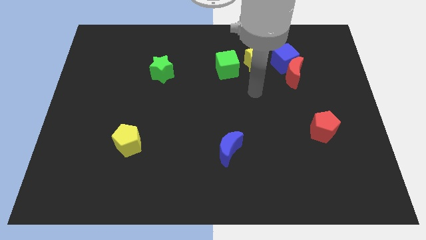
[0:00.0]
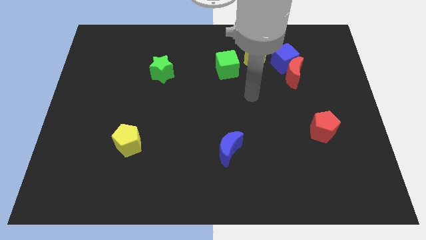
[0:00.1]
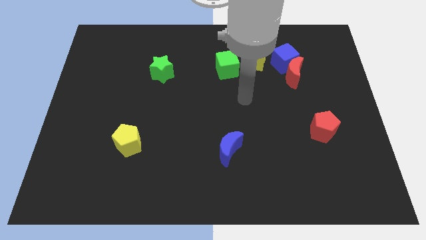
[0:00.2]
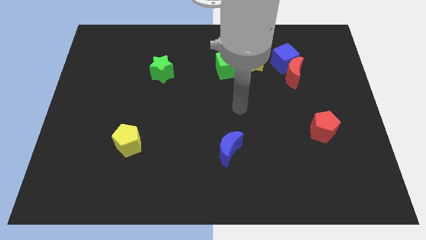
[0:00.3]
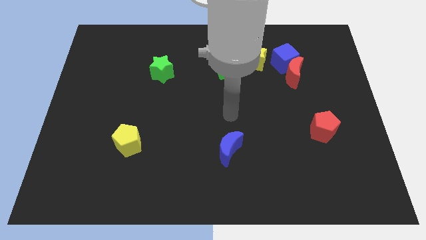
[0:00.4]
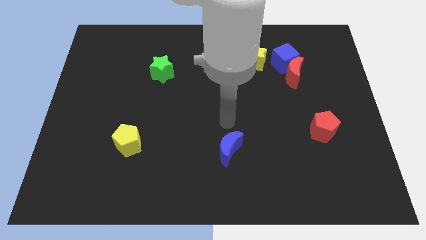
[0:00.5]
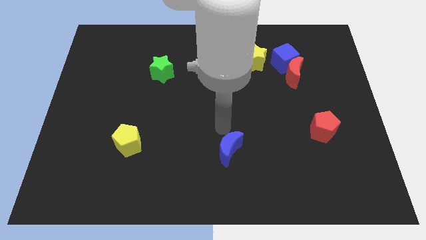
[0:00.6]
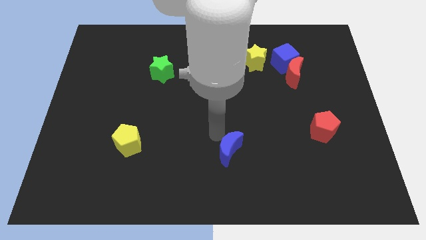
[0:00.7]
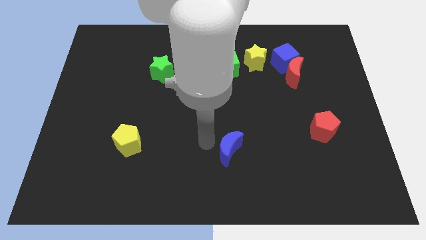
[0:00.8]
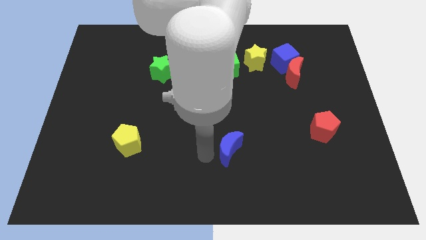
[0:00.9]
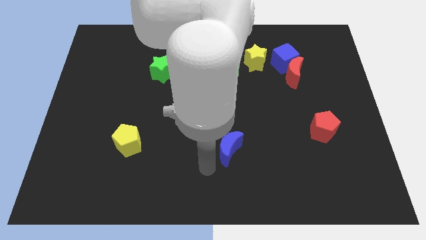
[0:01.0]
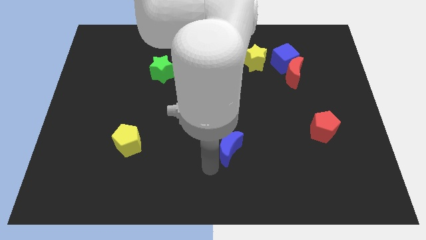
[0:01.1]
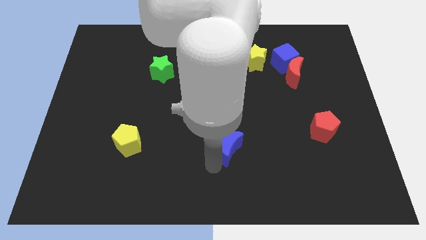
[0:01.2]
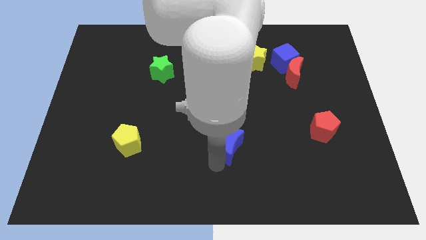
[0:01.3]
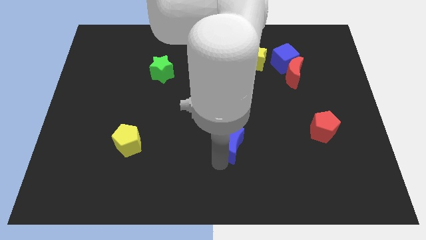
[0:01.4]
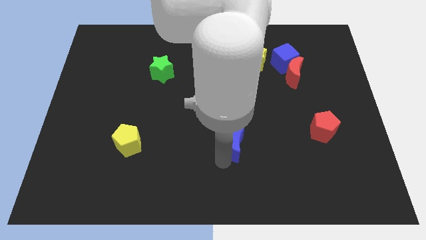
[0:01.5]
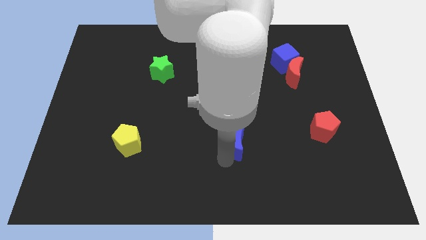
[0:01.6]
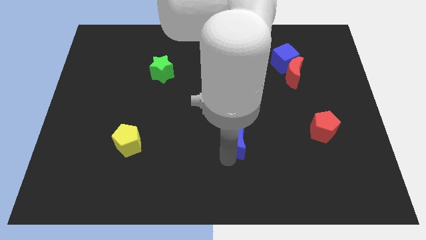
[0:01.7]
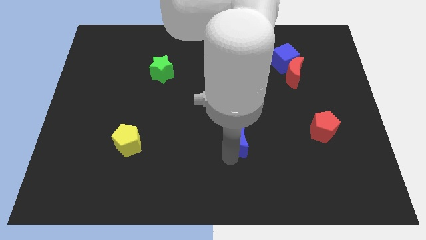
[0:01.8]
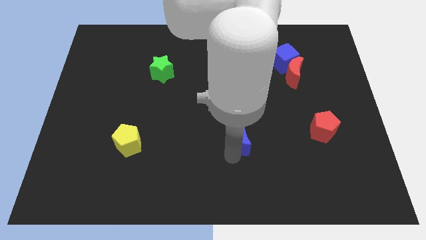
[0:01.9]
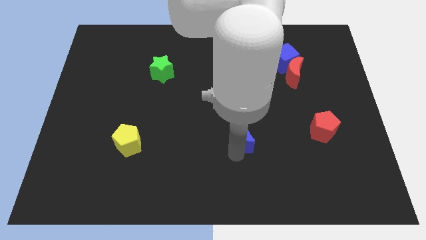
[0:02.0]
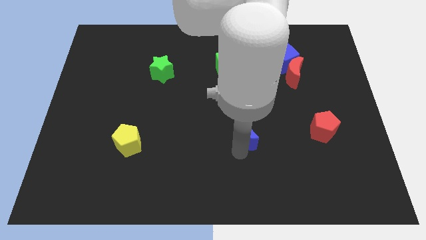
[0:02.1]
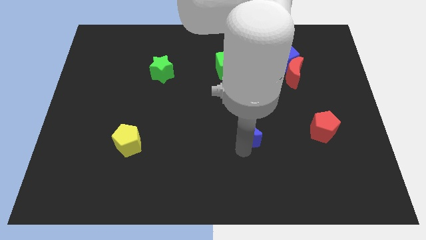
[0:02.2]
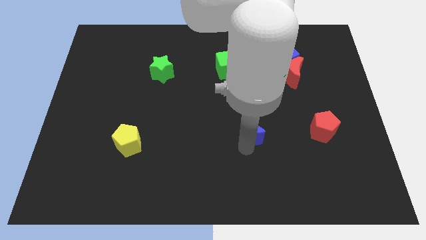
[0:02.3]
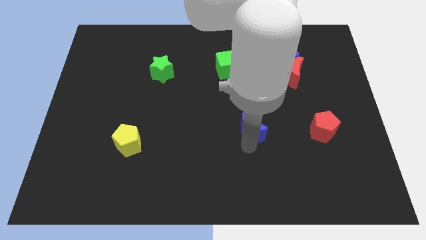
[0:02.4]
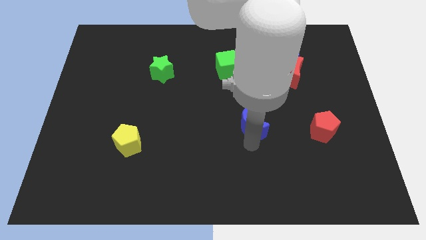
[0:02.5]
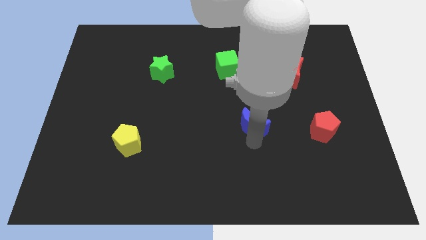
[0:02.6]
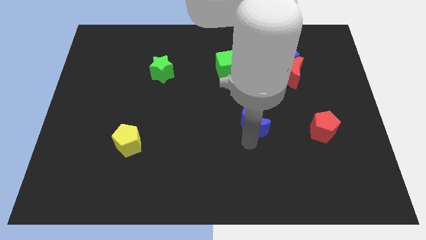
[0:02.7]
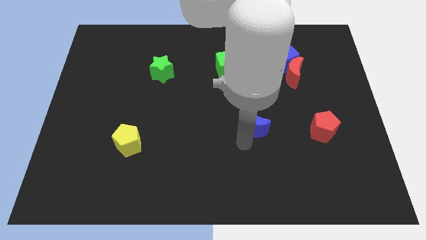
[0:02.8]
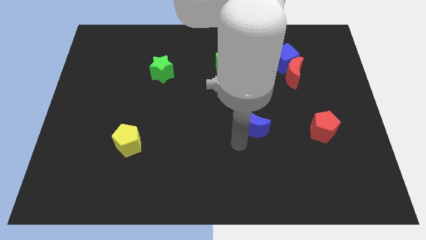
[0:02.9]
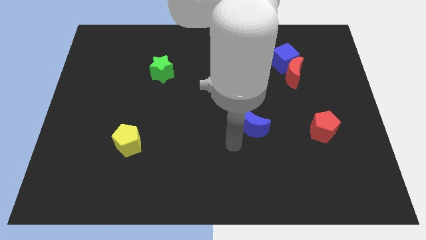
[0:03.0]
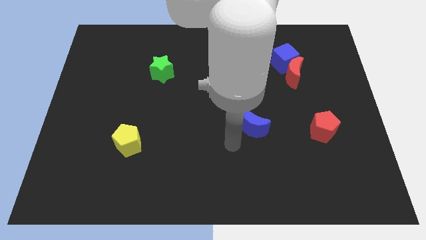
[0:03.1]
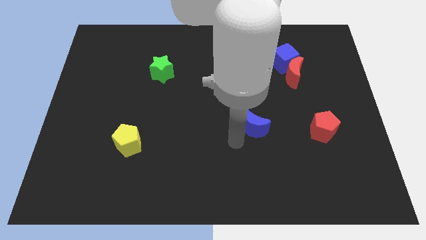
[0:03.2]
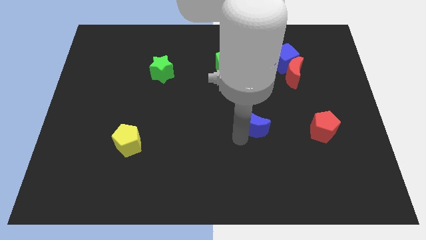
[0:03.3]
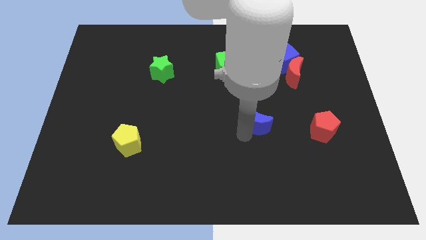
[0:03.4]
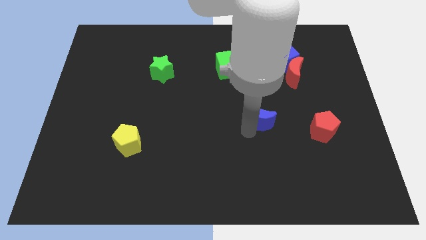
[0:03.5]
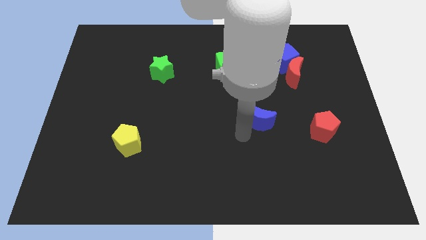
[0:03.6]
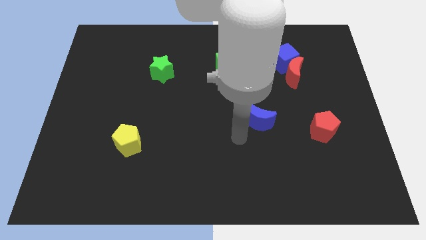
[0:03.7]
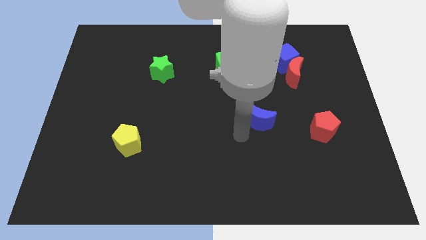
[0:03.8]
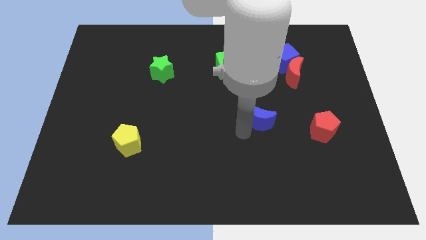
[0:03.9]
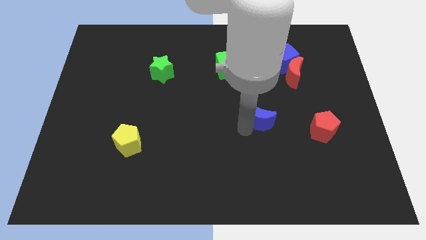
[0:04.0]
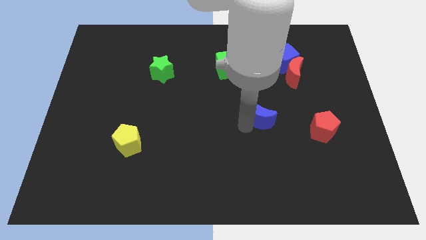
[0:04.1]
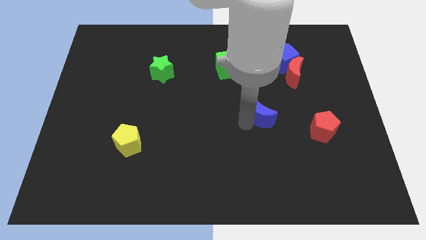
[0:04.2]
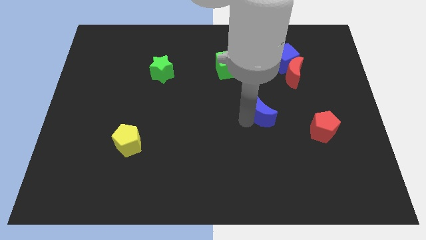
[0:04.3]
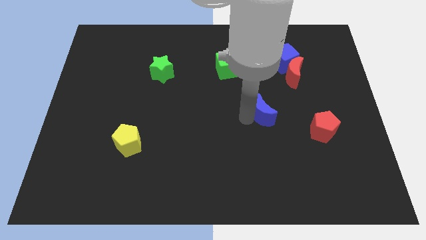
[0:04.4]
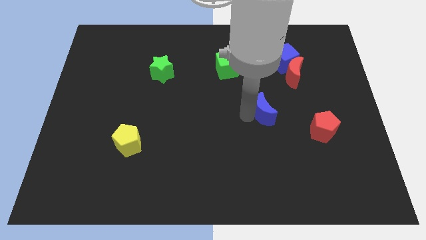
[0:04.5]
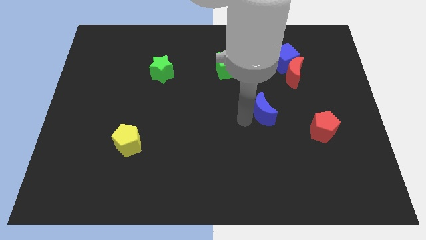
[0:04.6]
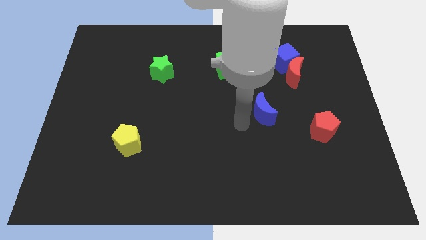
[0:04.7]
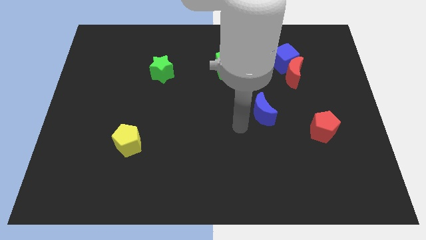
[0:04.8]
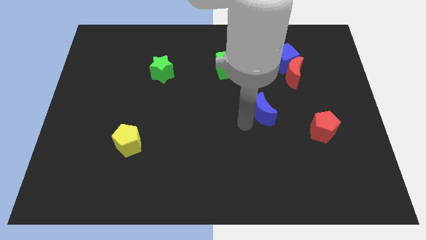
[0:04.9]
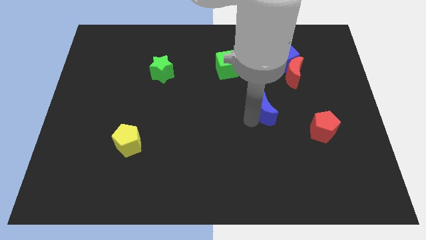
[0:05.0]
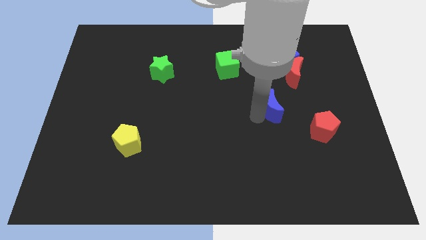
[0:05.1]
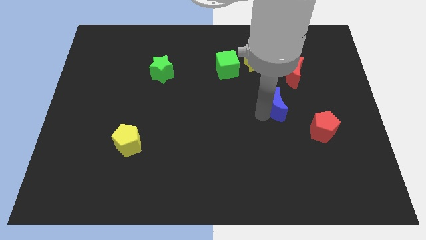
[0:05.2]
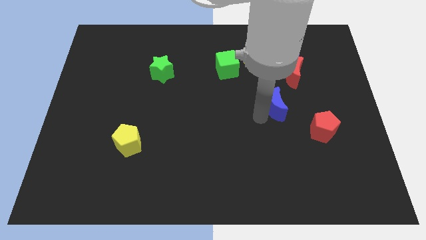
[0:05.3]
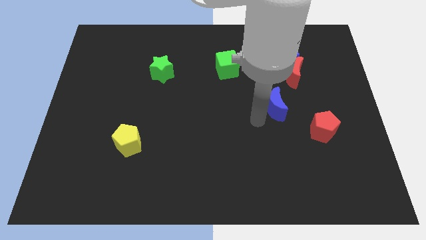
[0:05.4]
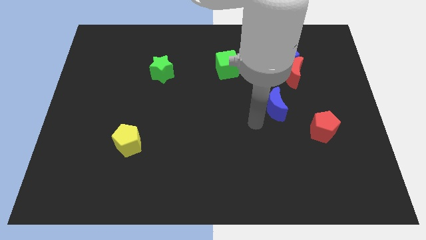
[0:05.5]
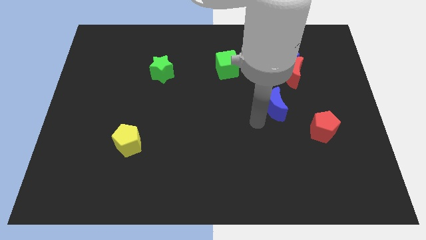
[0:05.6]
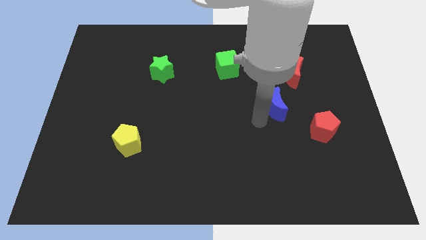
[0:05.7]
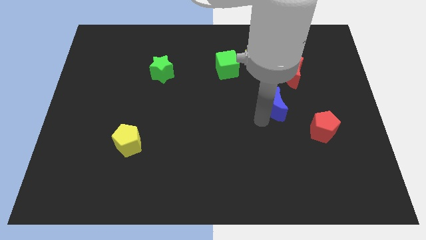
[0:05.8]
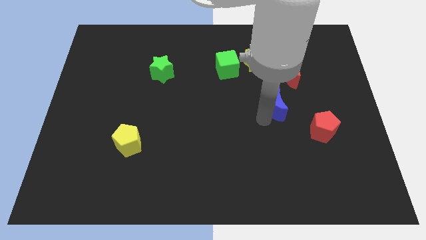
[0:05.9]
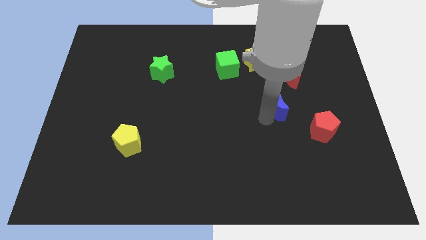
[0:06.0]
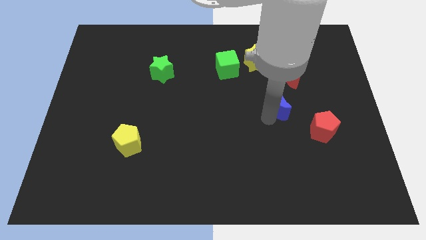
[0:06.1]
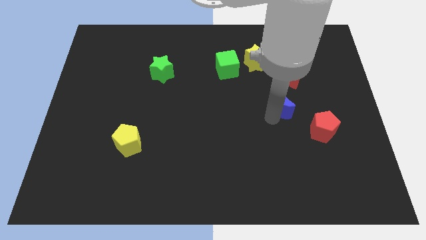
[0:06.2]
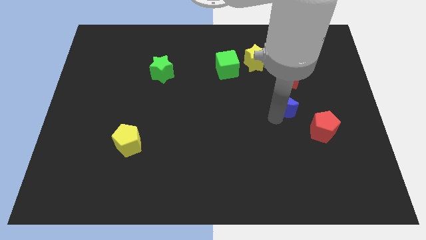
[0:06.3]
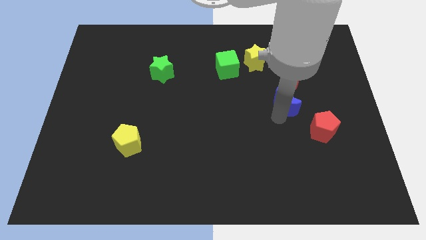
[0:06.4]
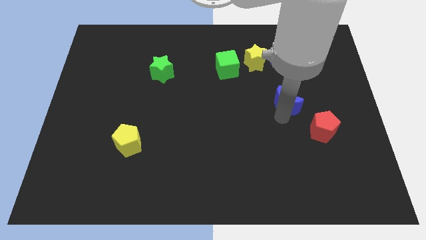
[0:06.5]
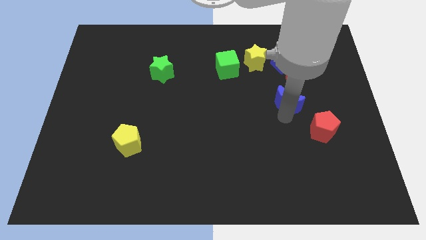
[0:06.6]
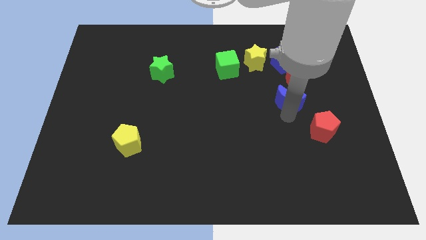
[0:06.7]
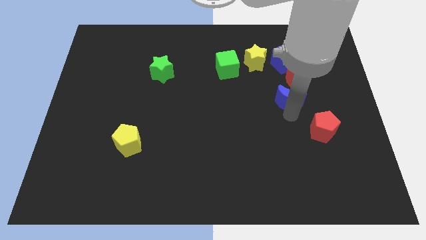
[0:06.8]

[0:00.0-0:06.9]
move the blue moon upwards and then to the right

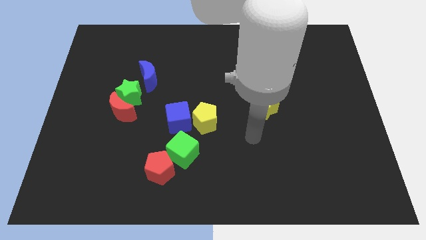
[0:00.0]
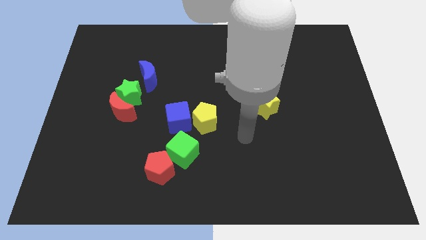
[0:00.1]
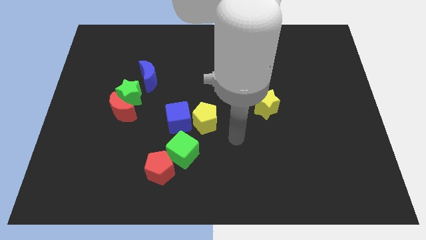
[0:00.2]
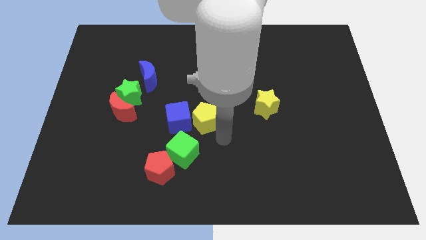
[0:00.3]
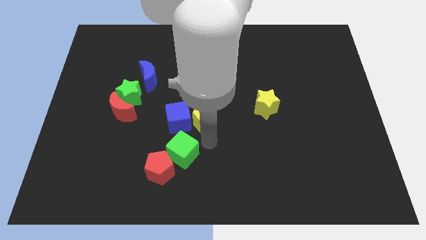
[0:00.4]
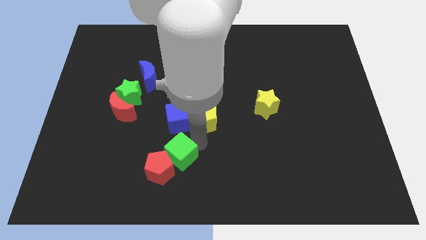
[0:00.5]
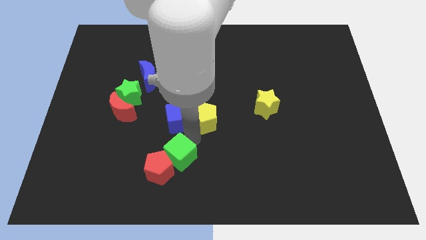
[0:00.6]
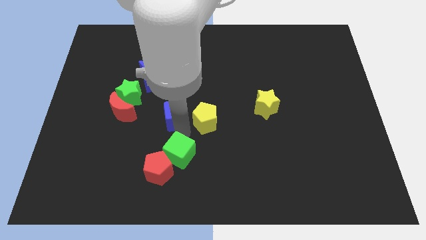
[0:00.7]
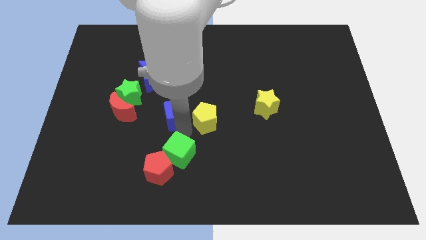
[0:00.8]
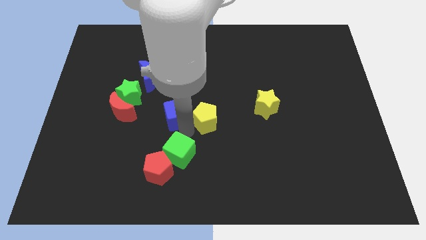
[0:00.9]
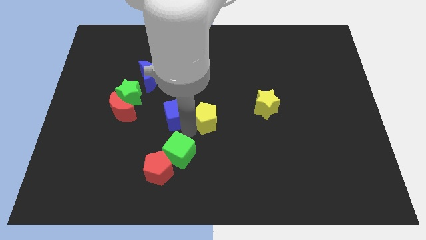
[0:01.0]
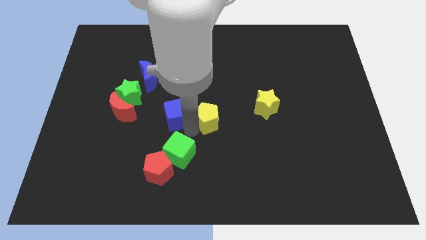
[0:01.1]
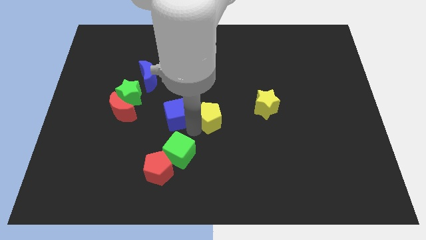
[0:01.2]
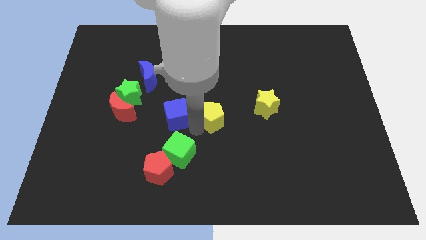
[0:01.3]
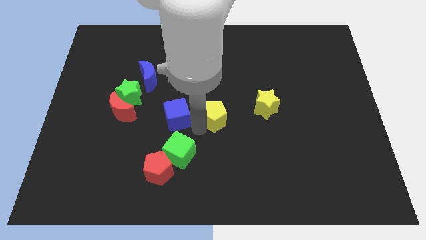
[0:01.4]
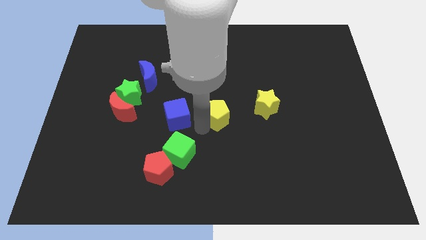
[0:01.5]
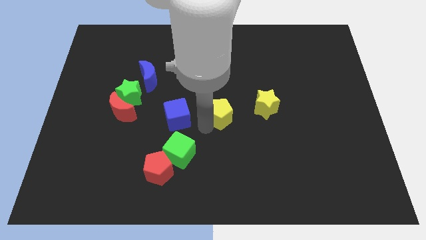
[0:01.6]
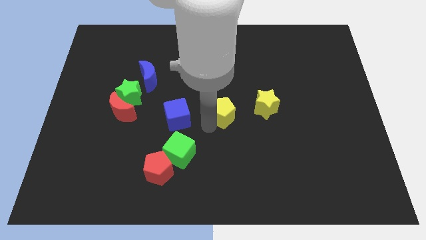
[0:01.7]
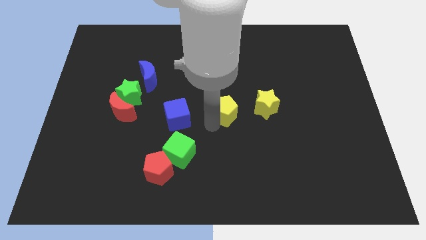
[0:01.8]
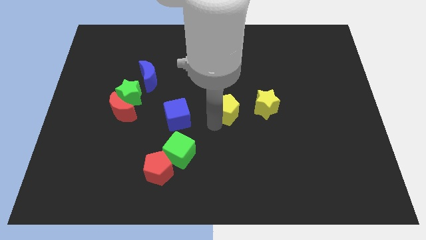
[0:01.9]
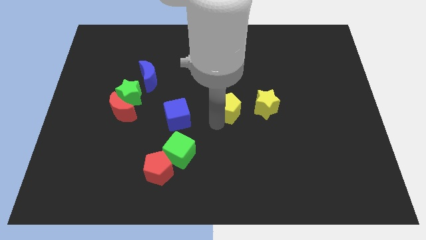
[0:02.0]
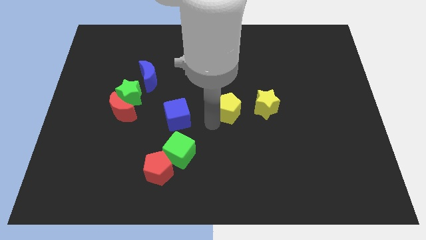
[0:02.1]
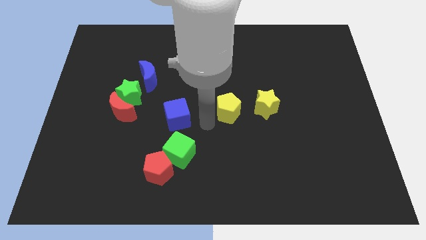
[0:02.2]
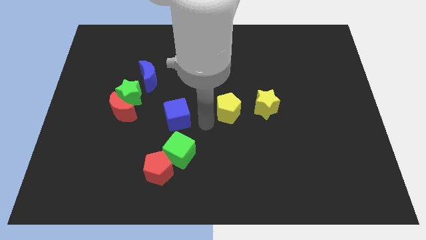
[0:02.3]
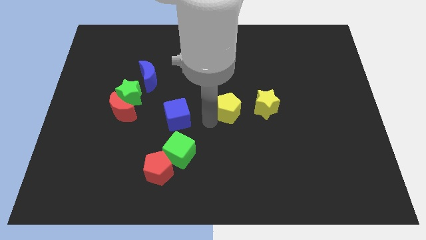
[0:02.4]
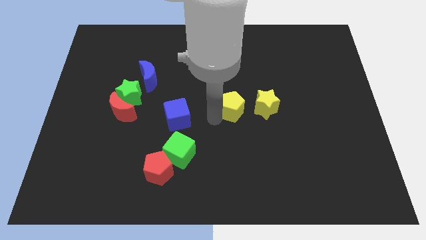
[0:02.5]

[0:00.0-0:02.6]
slide the yellow pentagon up and to the right a bit
